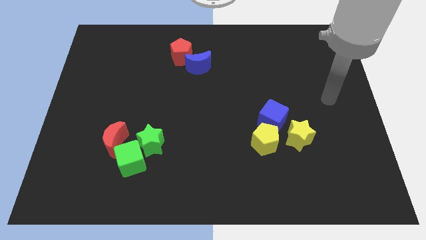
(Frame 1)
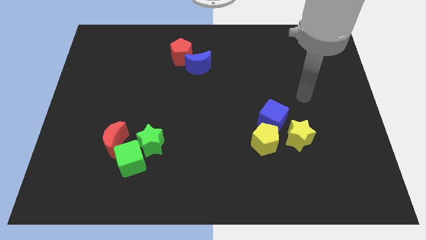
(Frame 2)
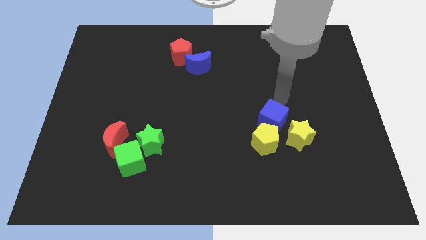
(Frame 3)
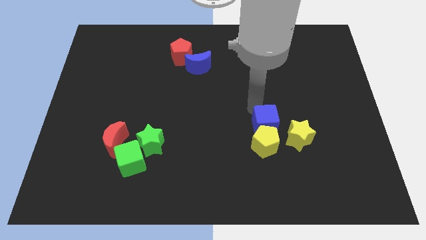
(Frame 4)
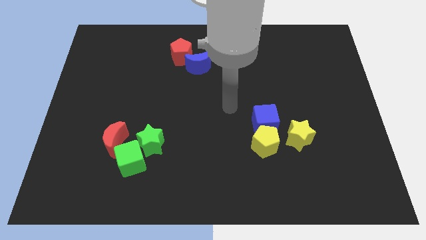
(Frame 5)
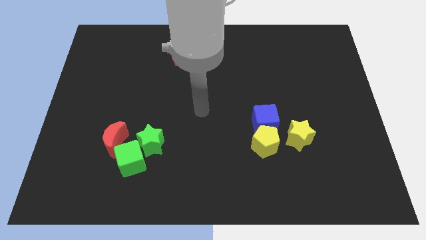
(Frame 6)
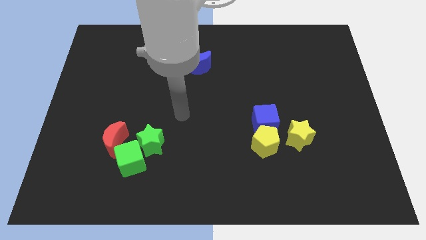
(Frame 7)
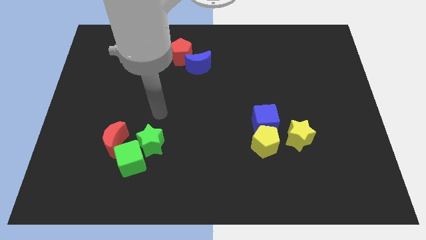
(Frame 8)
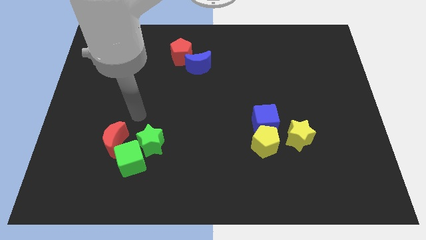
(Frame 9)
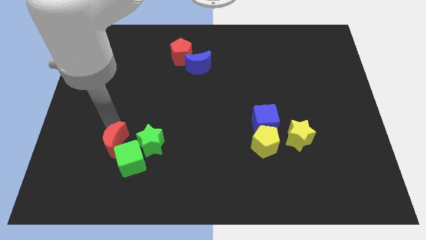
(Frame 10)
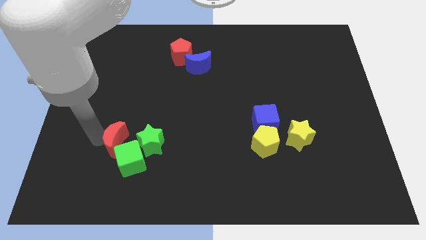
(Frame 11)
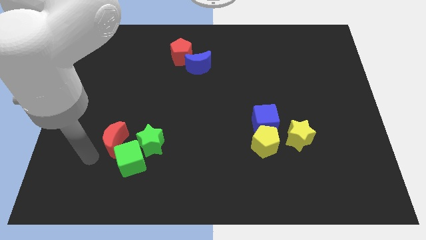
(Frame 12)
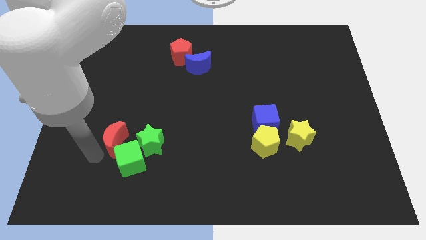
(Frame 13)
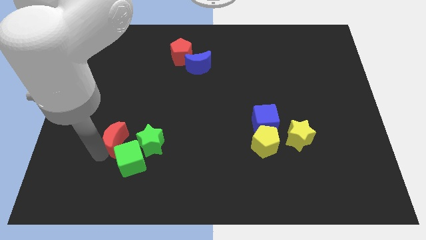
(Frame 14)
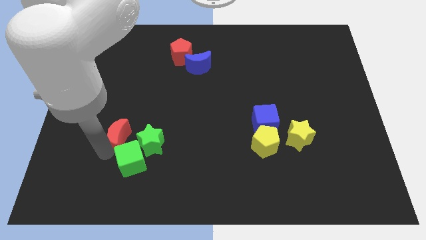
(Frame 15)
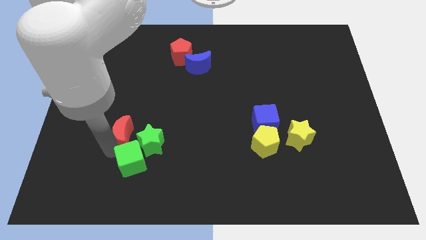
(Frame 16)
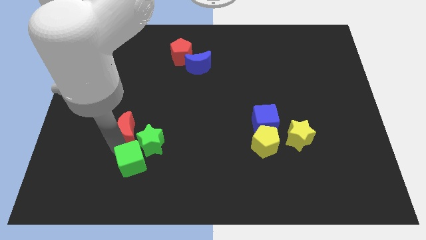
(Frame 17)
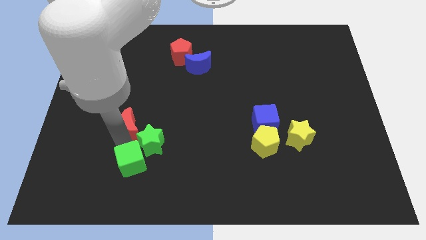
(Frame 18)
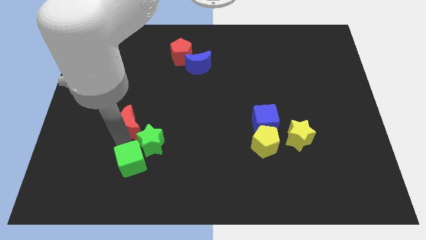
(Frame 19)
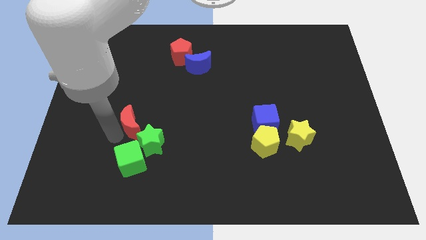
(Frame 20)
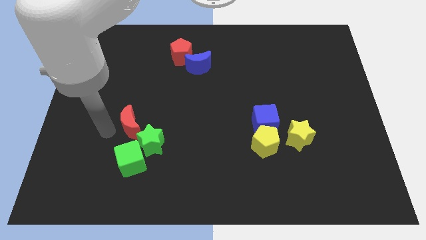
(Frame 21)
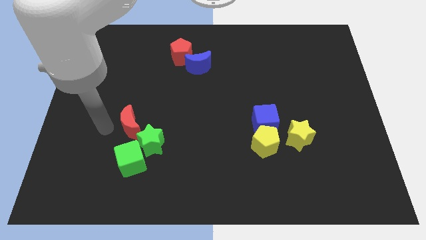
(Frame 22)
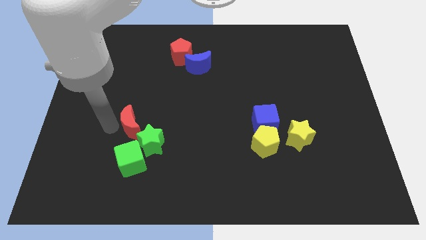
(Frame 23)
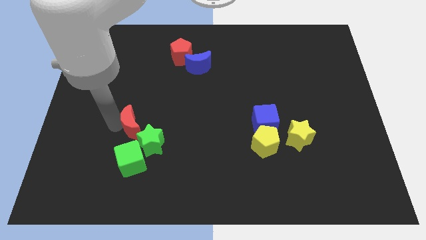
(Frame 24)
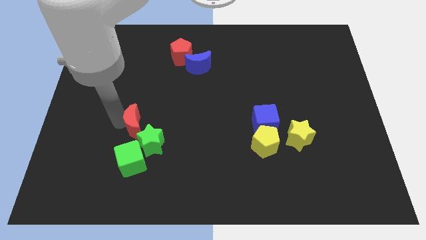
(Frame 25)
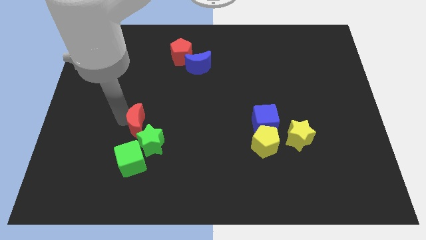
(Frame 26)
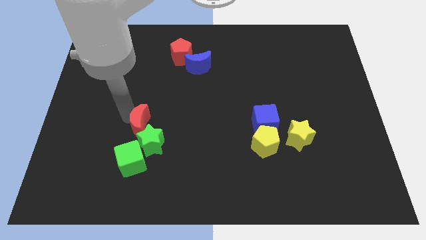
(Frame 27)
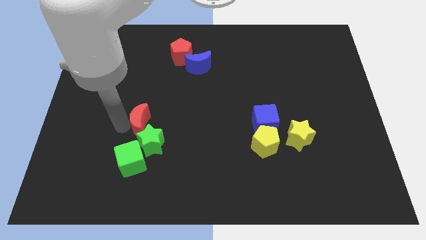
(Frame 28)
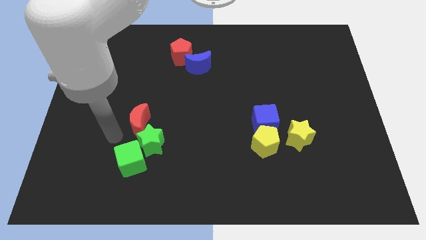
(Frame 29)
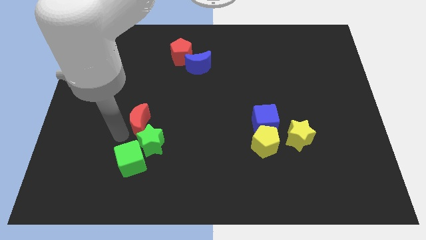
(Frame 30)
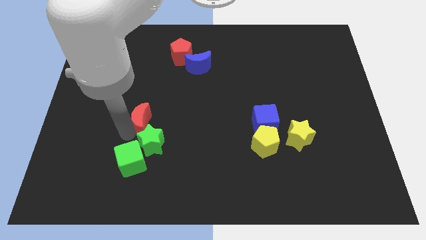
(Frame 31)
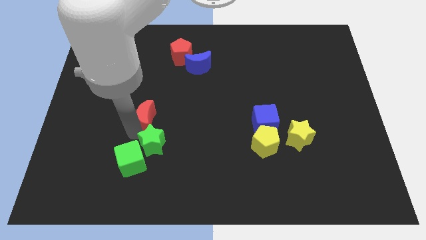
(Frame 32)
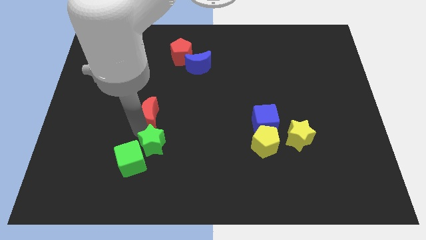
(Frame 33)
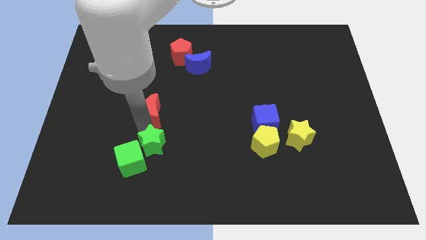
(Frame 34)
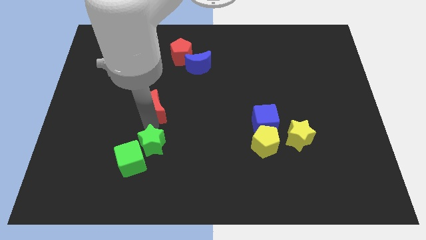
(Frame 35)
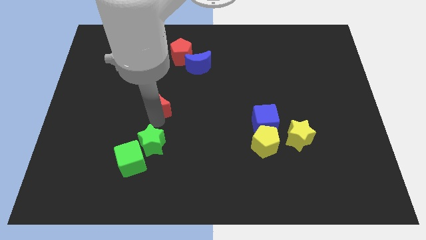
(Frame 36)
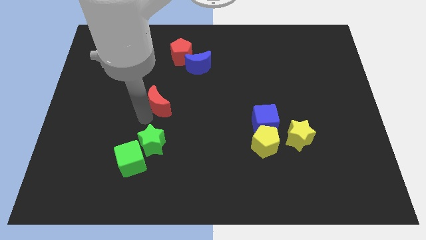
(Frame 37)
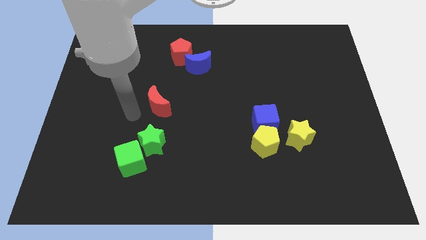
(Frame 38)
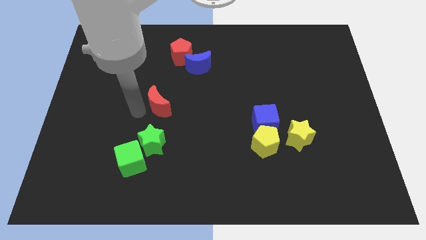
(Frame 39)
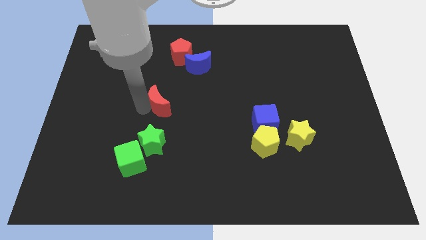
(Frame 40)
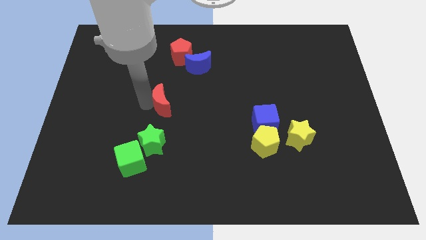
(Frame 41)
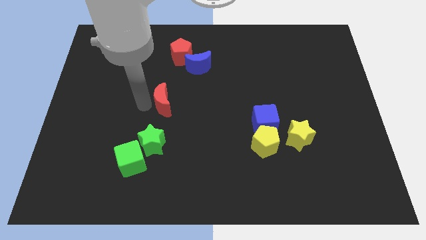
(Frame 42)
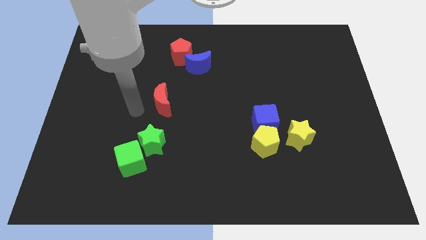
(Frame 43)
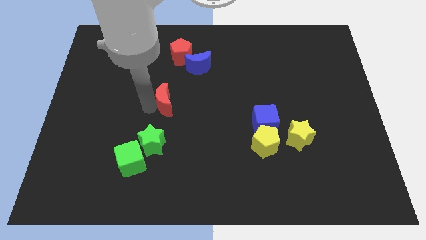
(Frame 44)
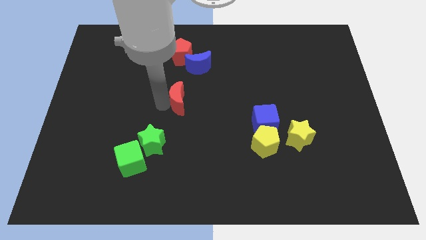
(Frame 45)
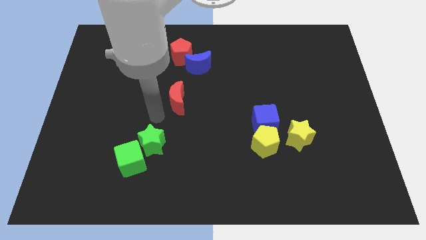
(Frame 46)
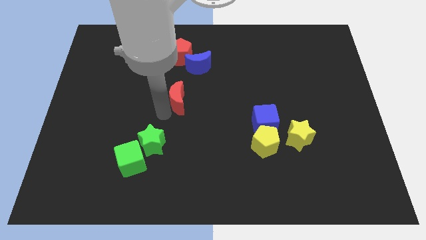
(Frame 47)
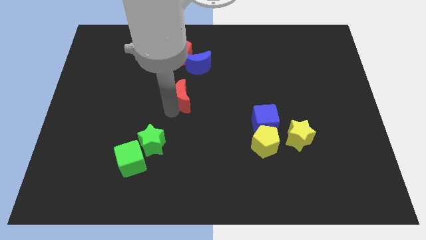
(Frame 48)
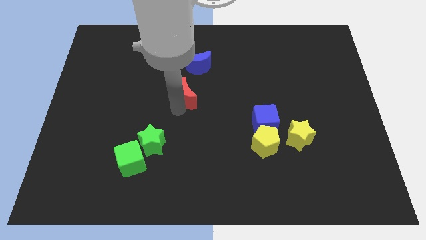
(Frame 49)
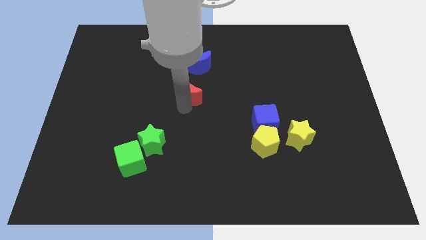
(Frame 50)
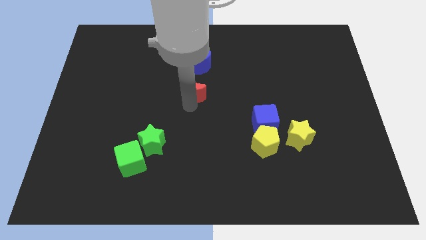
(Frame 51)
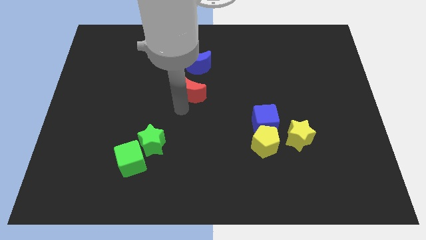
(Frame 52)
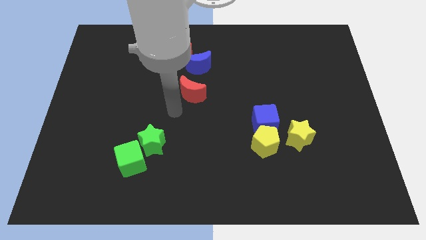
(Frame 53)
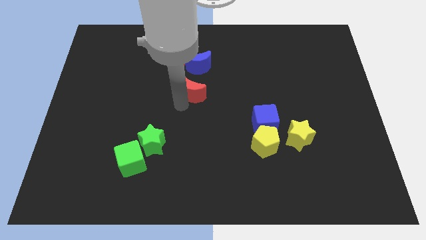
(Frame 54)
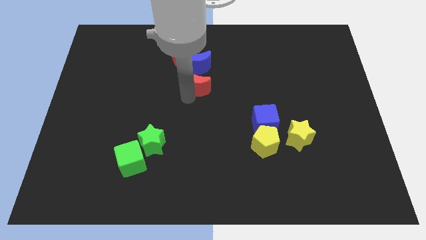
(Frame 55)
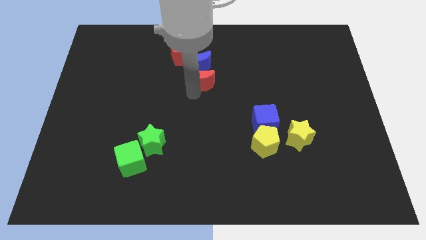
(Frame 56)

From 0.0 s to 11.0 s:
slide the red moon diagonally down and to the right of the red pentagon

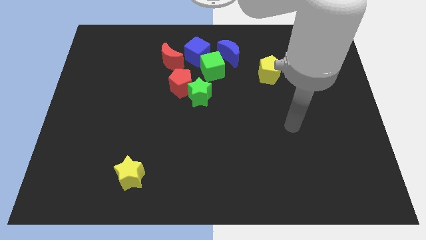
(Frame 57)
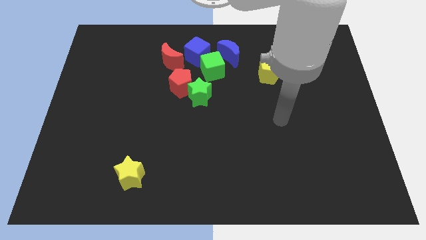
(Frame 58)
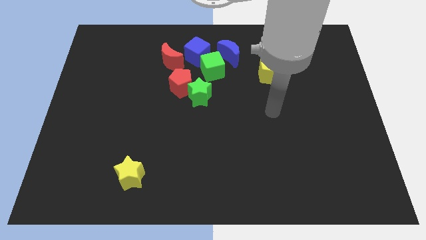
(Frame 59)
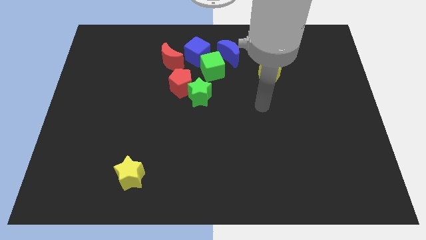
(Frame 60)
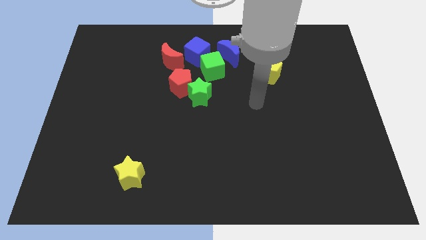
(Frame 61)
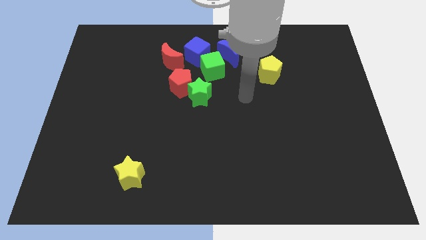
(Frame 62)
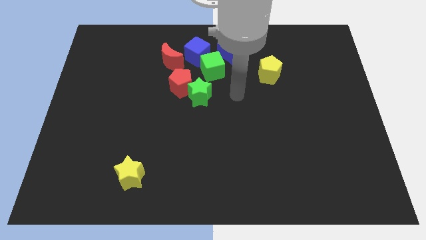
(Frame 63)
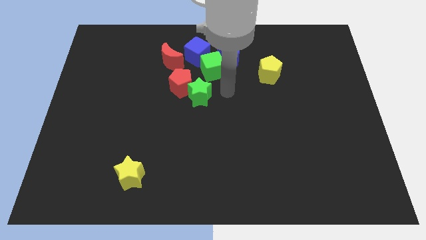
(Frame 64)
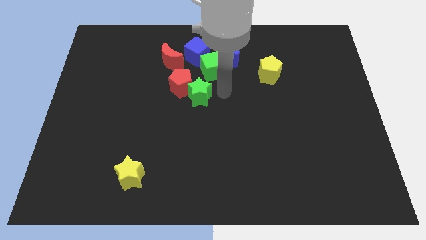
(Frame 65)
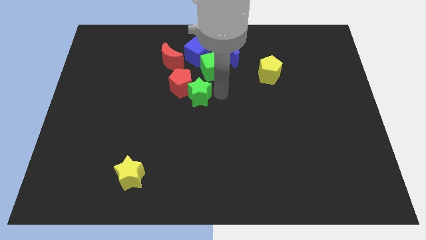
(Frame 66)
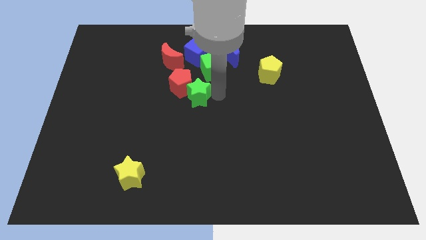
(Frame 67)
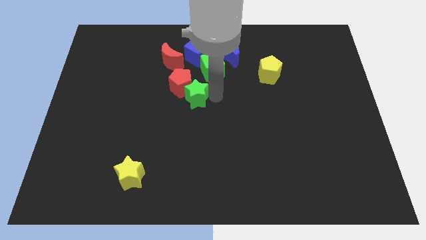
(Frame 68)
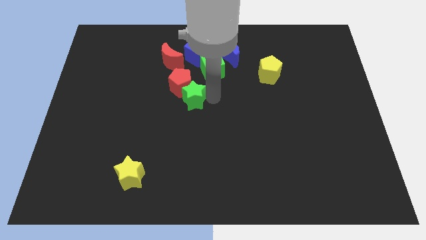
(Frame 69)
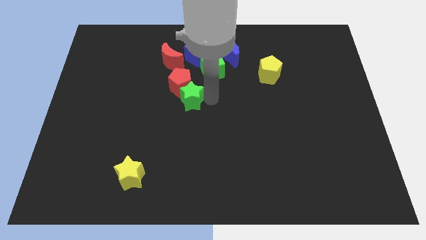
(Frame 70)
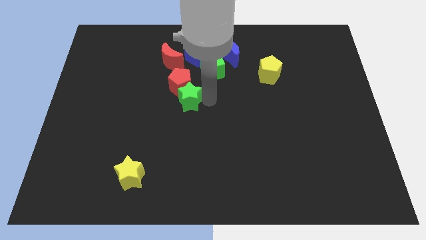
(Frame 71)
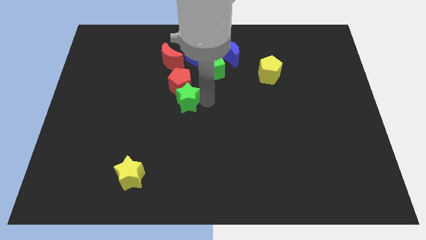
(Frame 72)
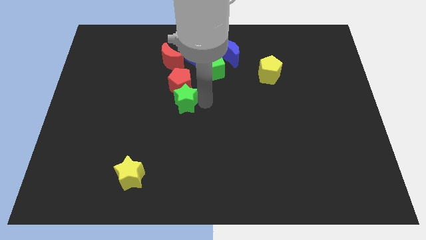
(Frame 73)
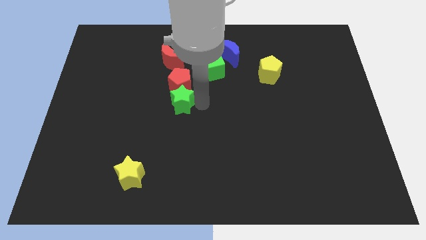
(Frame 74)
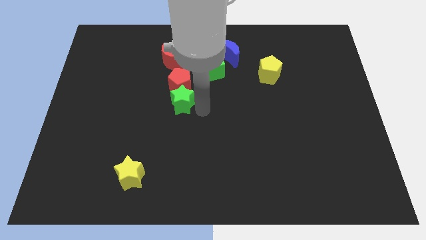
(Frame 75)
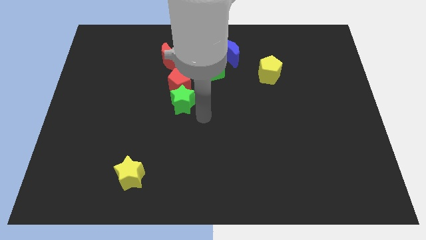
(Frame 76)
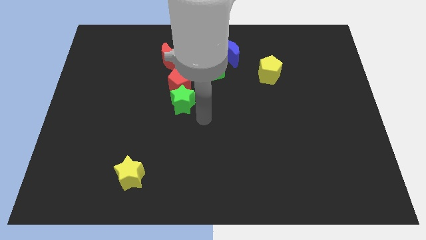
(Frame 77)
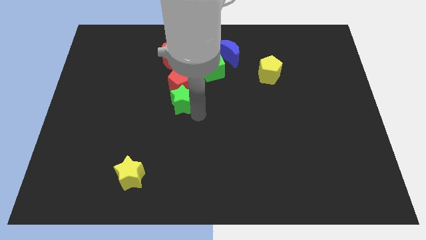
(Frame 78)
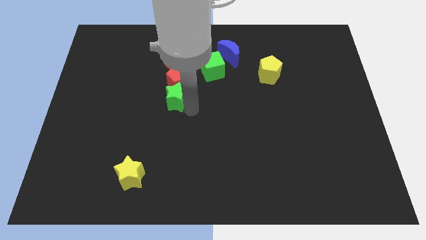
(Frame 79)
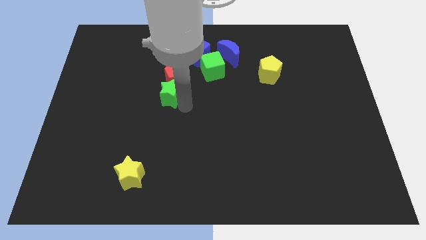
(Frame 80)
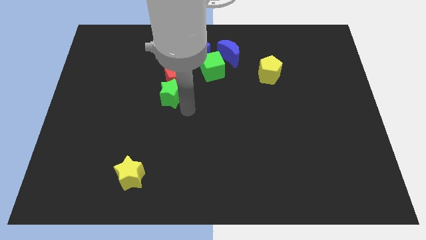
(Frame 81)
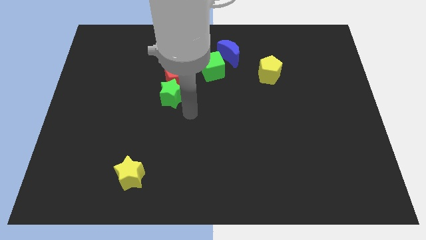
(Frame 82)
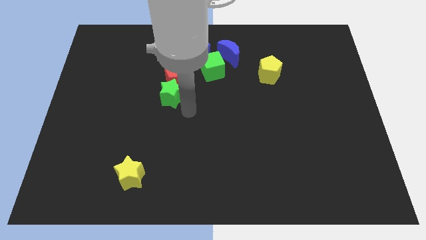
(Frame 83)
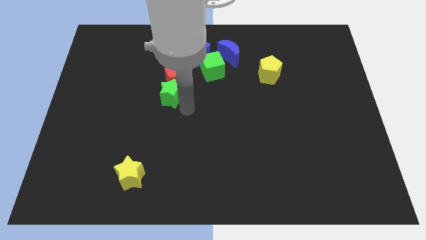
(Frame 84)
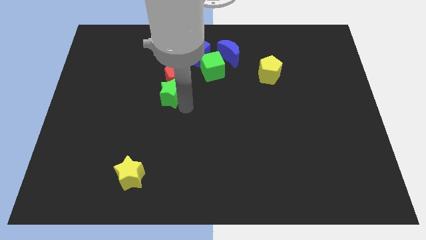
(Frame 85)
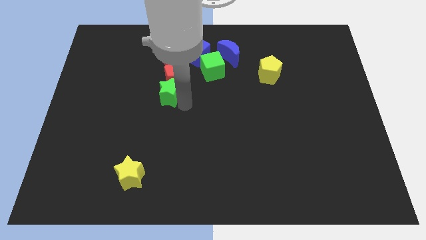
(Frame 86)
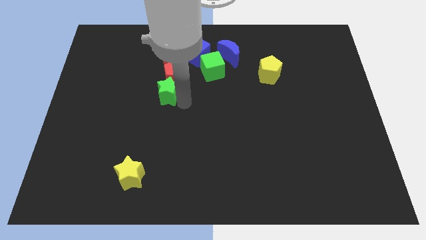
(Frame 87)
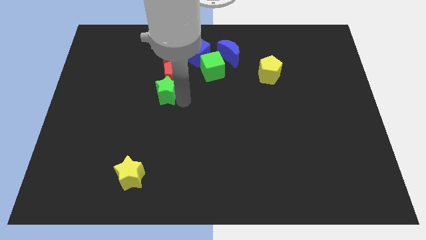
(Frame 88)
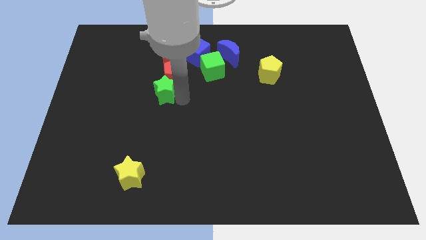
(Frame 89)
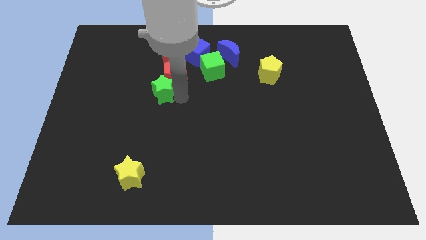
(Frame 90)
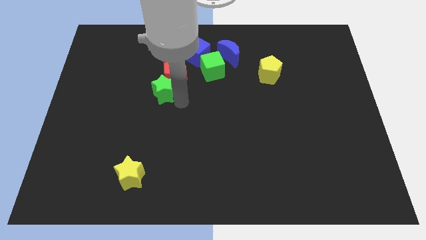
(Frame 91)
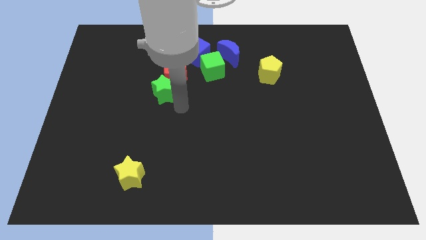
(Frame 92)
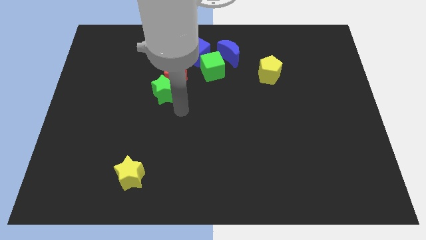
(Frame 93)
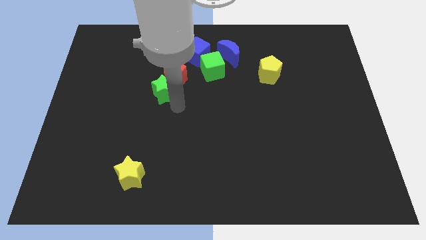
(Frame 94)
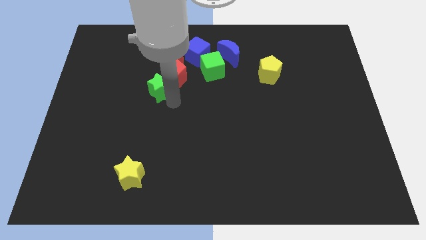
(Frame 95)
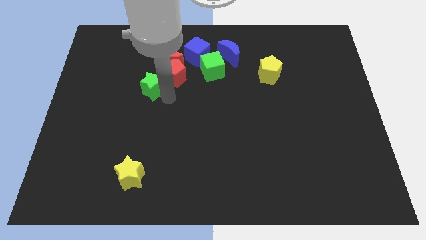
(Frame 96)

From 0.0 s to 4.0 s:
move the green star to the bottom left side of the red moon
